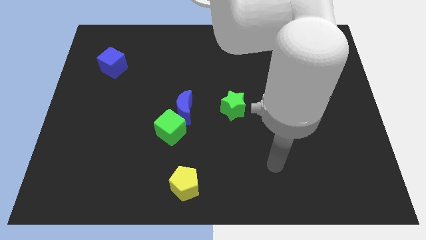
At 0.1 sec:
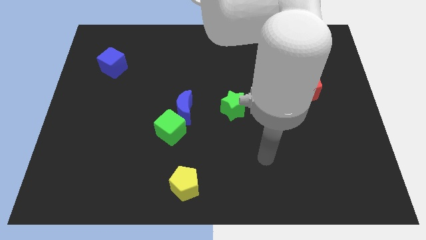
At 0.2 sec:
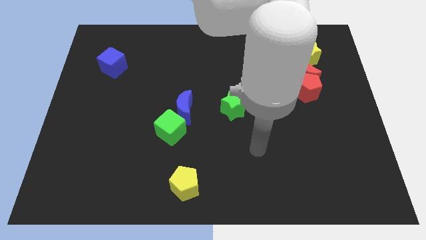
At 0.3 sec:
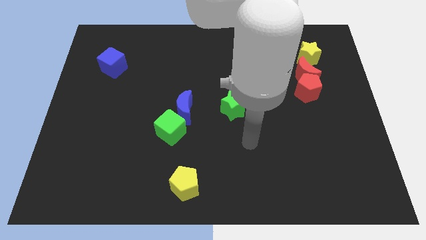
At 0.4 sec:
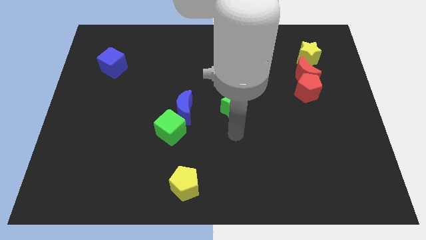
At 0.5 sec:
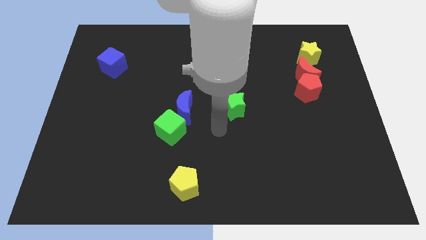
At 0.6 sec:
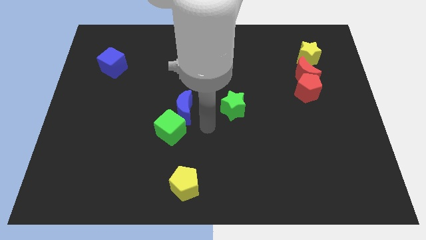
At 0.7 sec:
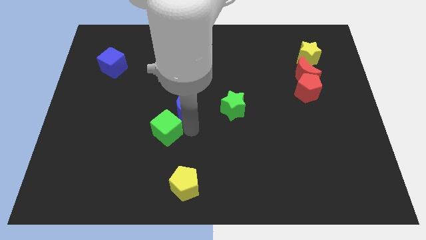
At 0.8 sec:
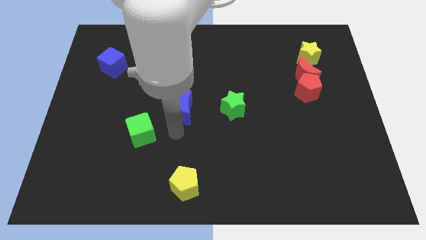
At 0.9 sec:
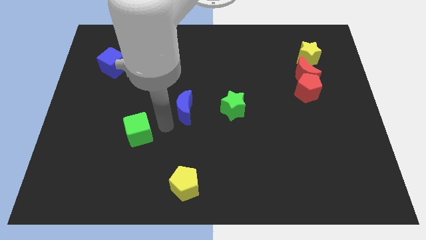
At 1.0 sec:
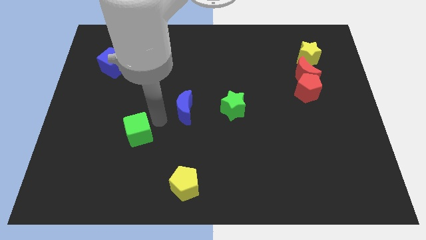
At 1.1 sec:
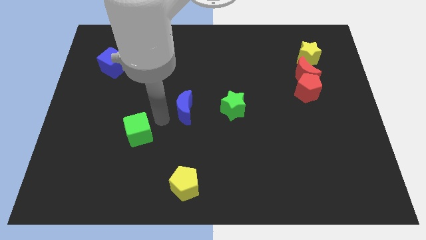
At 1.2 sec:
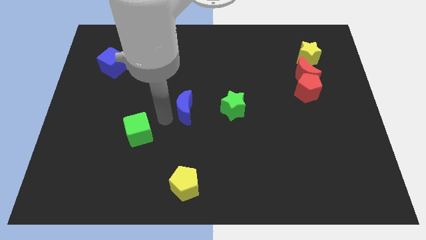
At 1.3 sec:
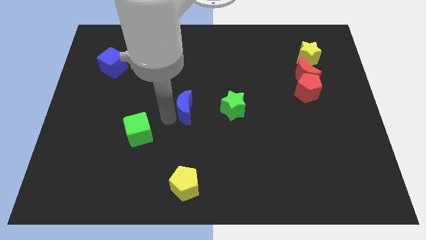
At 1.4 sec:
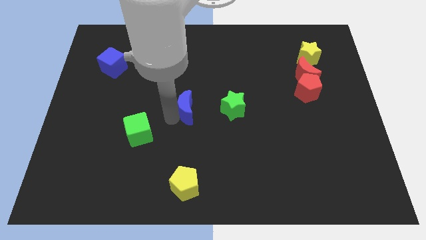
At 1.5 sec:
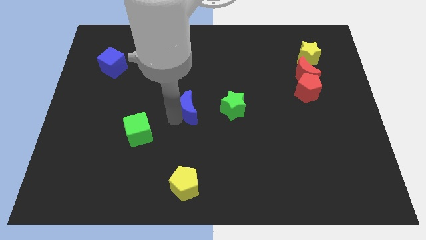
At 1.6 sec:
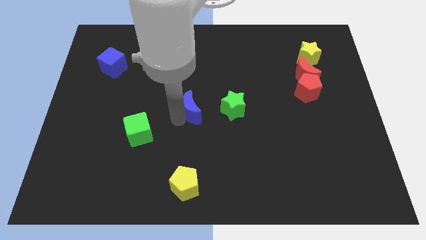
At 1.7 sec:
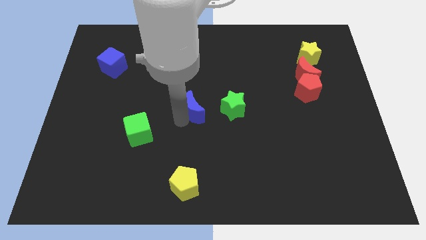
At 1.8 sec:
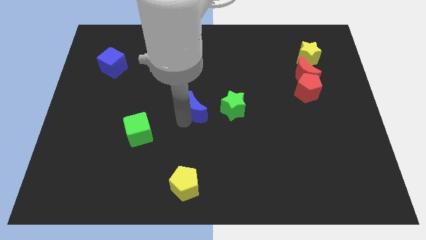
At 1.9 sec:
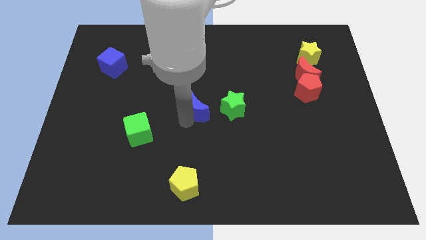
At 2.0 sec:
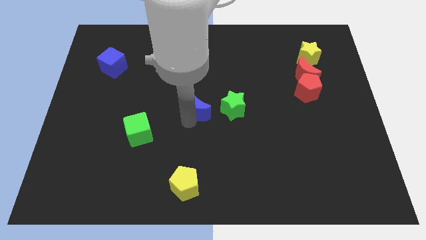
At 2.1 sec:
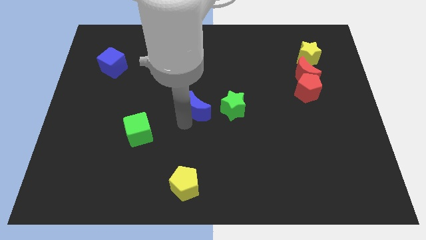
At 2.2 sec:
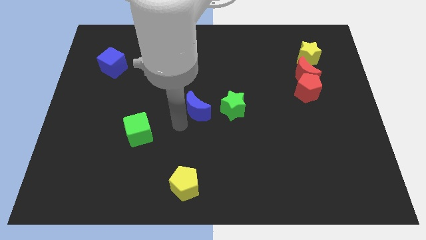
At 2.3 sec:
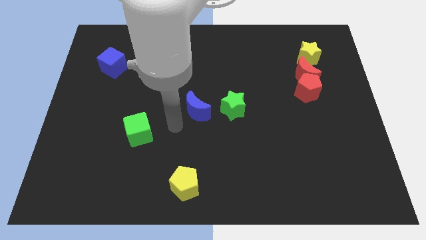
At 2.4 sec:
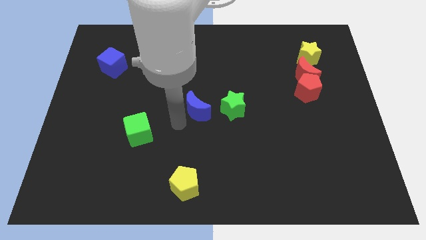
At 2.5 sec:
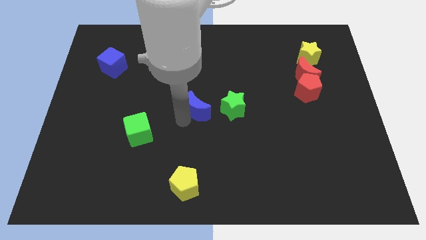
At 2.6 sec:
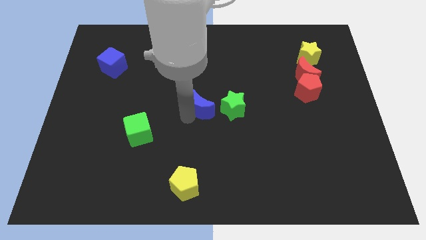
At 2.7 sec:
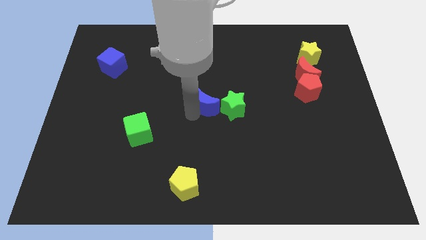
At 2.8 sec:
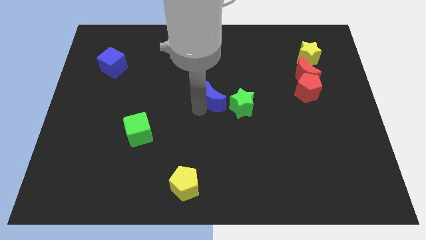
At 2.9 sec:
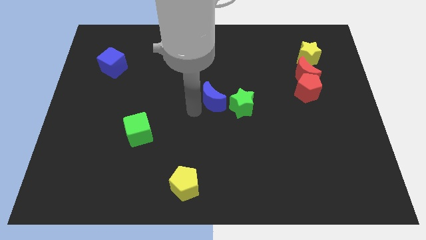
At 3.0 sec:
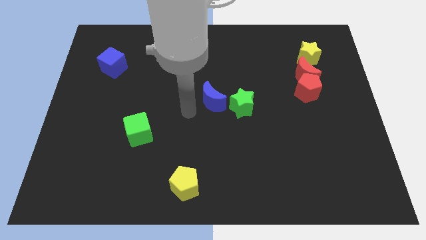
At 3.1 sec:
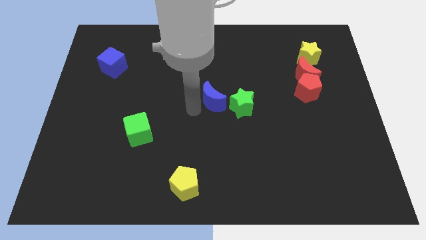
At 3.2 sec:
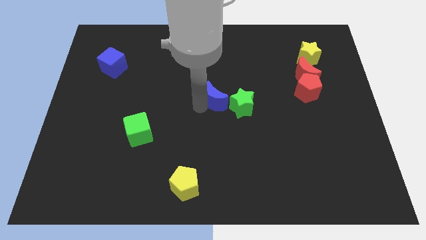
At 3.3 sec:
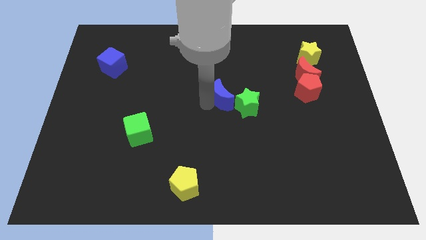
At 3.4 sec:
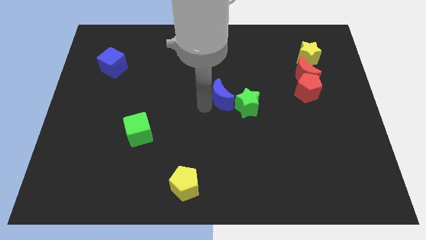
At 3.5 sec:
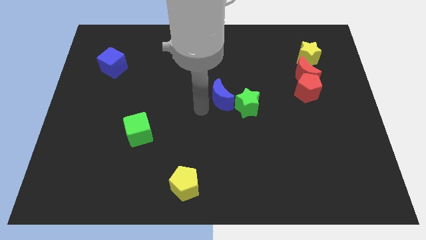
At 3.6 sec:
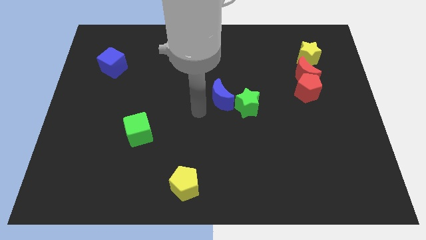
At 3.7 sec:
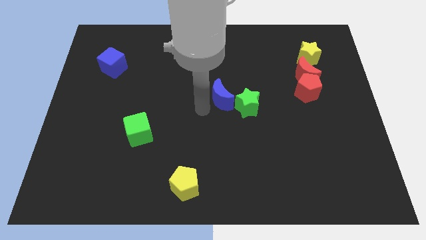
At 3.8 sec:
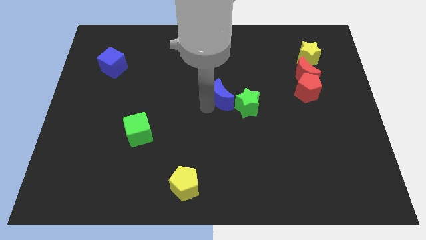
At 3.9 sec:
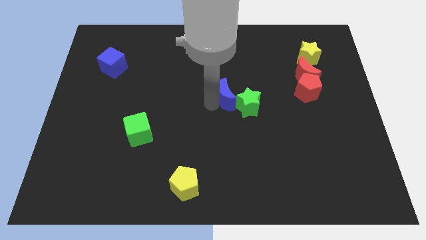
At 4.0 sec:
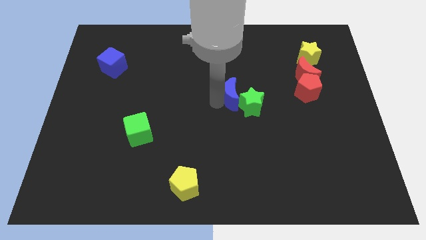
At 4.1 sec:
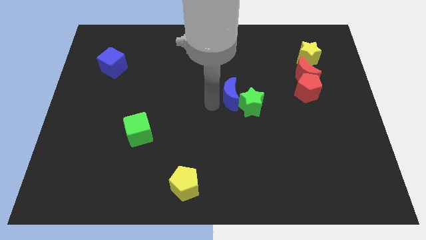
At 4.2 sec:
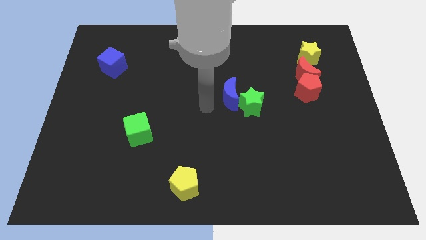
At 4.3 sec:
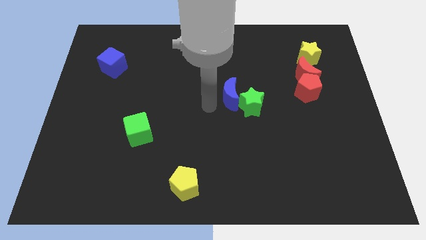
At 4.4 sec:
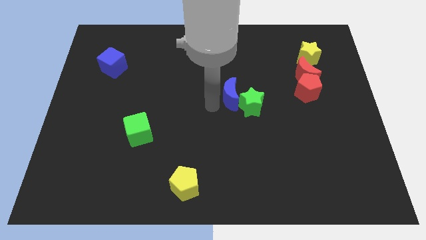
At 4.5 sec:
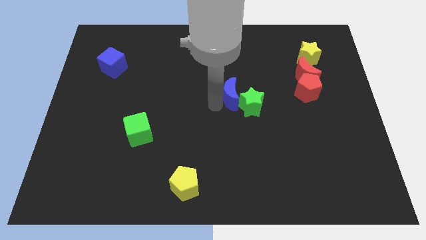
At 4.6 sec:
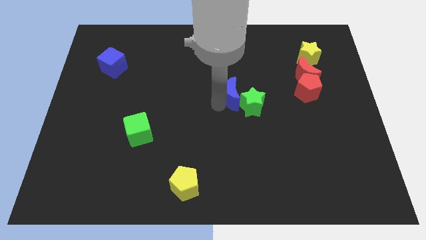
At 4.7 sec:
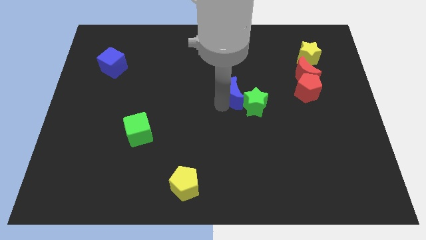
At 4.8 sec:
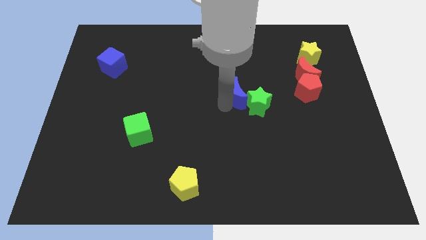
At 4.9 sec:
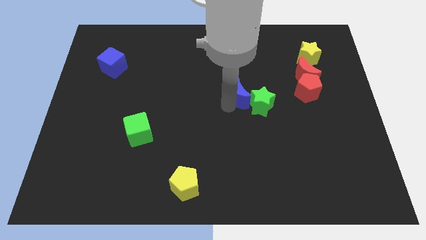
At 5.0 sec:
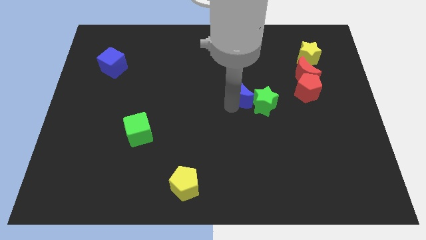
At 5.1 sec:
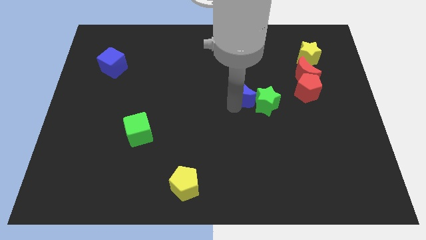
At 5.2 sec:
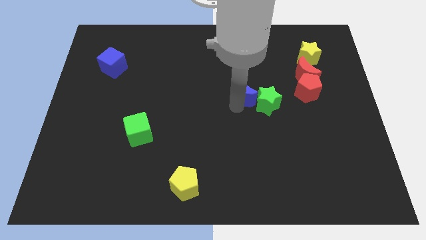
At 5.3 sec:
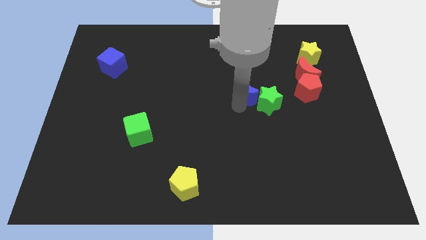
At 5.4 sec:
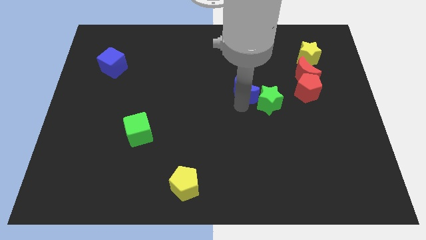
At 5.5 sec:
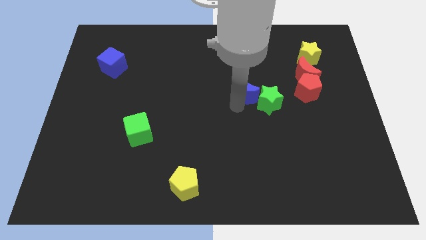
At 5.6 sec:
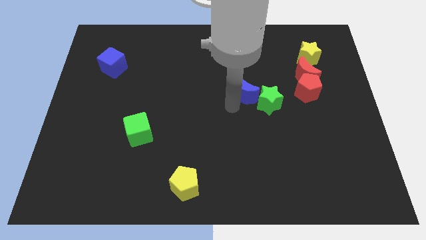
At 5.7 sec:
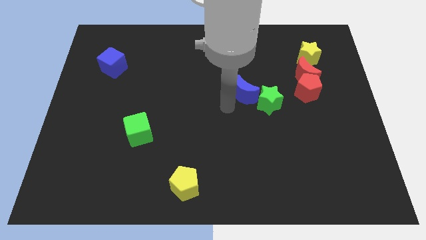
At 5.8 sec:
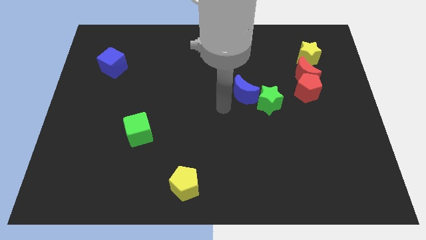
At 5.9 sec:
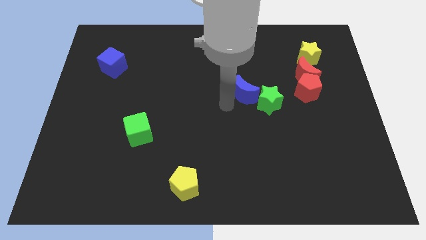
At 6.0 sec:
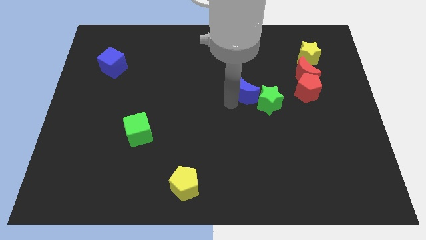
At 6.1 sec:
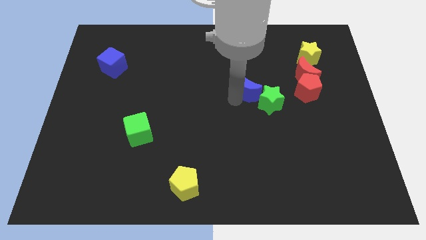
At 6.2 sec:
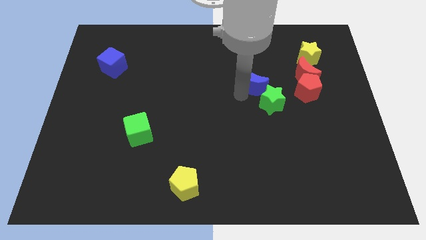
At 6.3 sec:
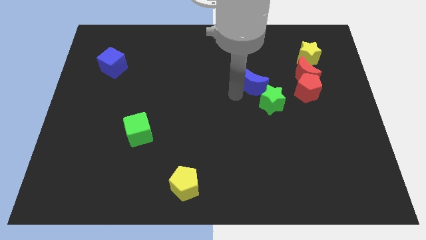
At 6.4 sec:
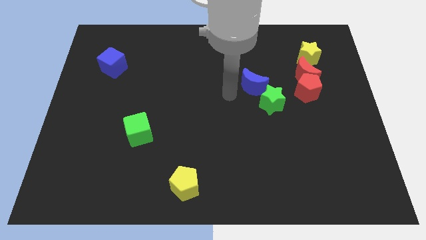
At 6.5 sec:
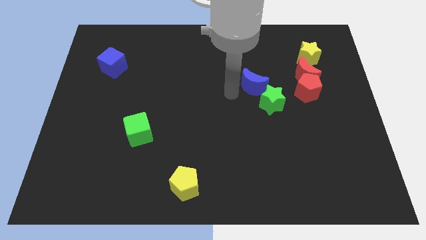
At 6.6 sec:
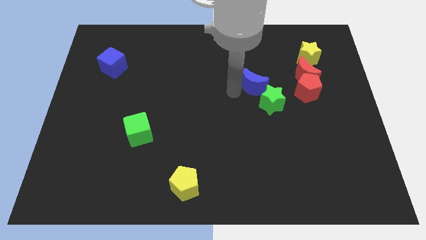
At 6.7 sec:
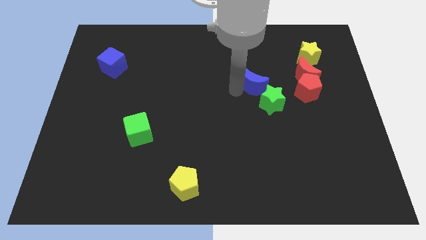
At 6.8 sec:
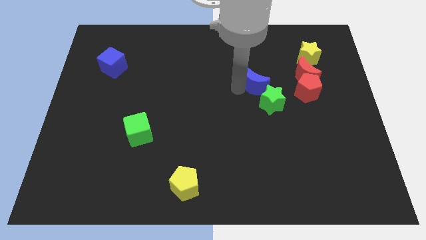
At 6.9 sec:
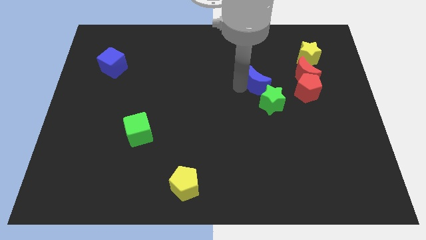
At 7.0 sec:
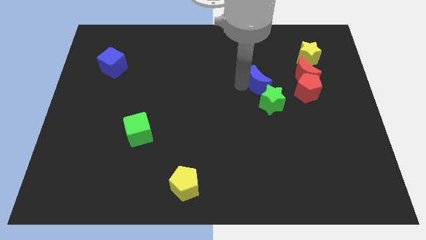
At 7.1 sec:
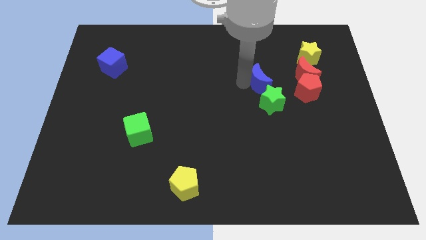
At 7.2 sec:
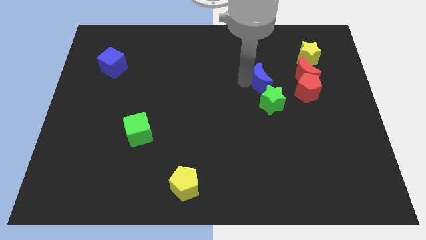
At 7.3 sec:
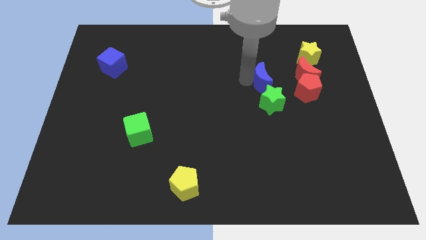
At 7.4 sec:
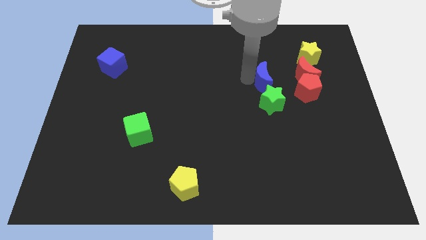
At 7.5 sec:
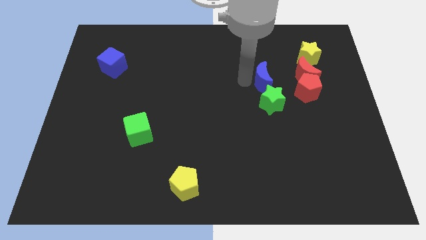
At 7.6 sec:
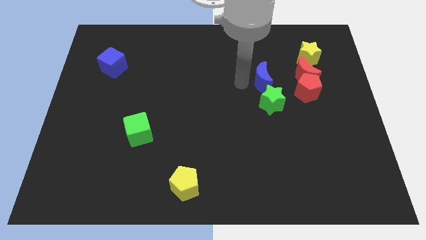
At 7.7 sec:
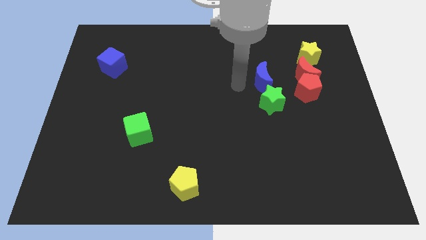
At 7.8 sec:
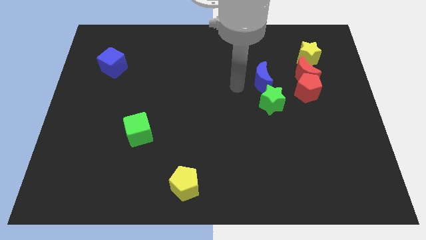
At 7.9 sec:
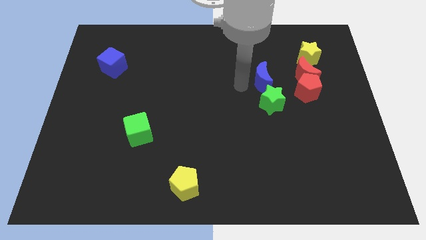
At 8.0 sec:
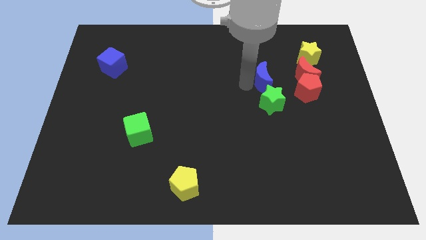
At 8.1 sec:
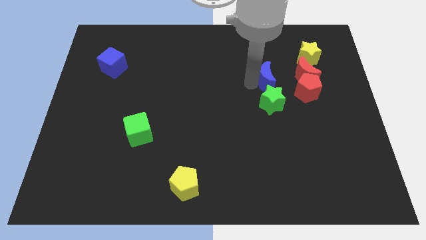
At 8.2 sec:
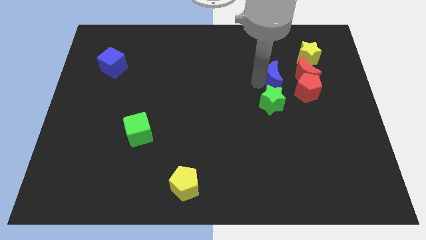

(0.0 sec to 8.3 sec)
move the blue moon to the bottom left of the yellow star
